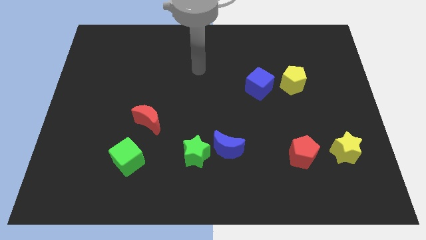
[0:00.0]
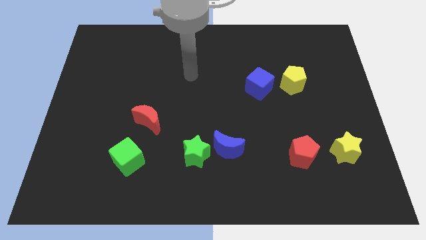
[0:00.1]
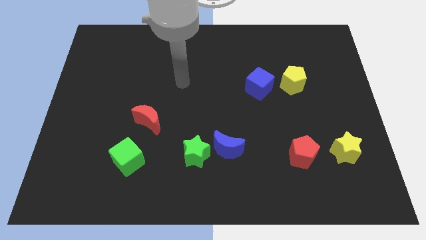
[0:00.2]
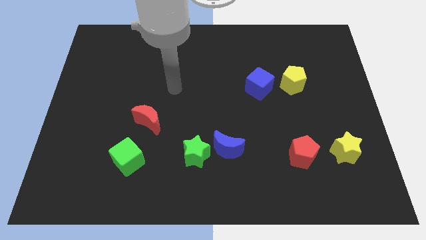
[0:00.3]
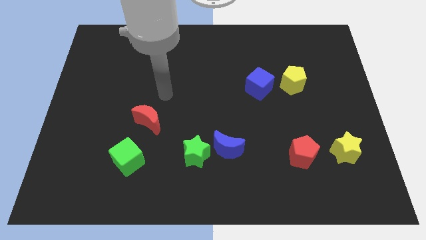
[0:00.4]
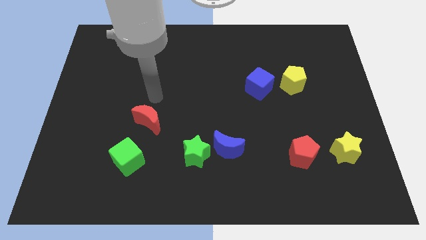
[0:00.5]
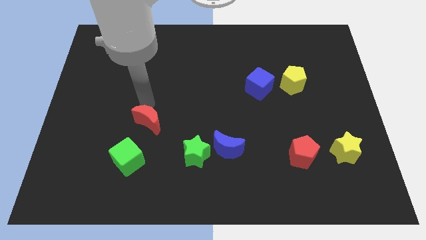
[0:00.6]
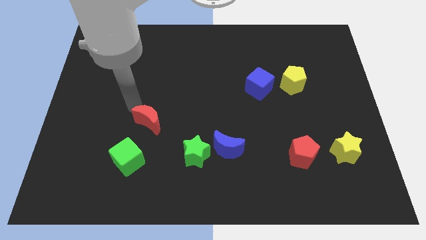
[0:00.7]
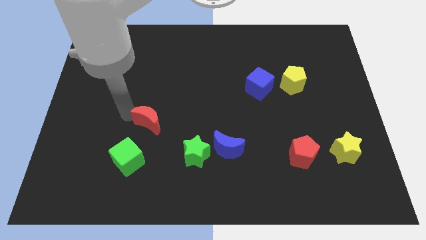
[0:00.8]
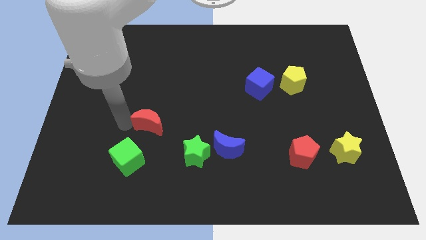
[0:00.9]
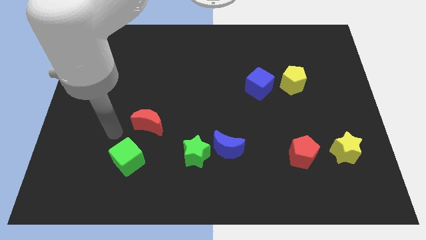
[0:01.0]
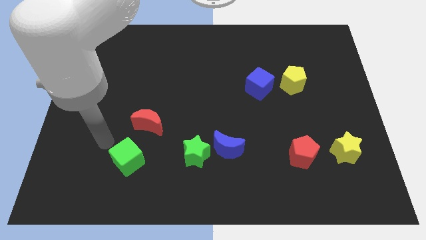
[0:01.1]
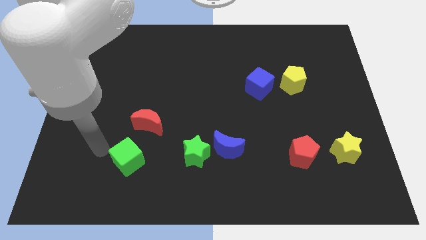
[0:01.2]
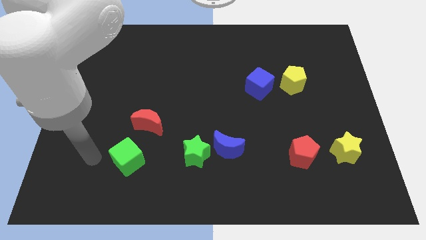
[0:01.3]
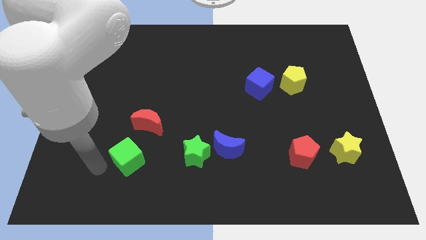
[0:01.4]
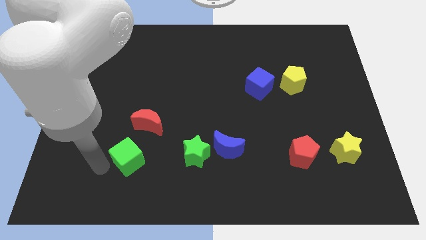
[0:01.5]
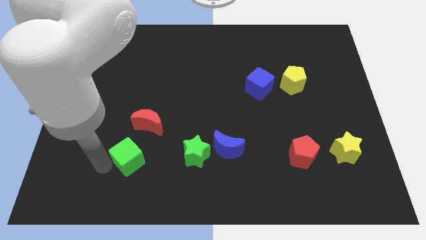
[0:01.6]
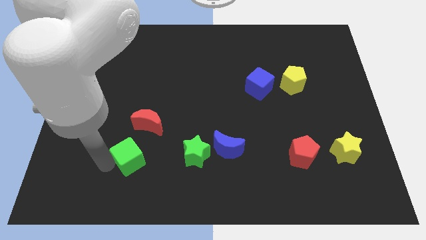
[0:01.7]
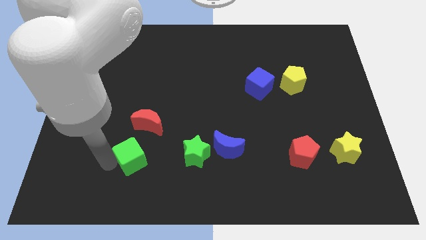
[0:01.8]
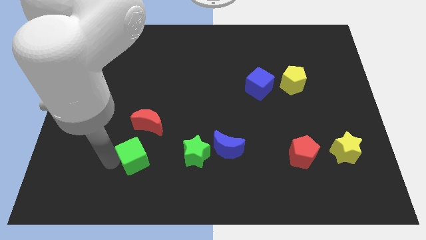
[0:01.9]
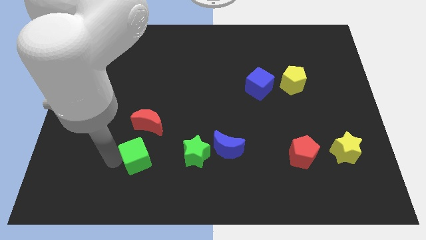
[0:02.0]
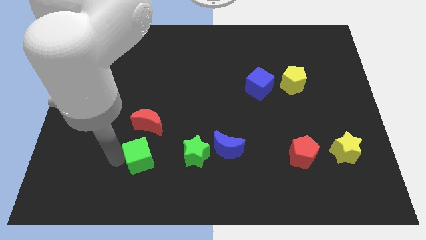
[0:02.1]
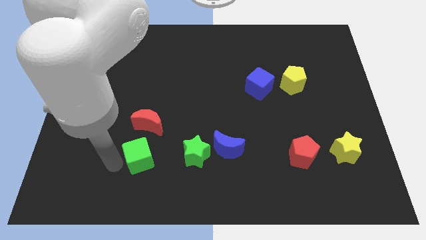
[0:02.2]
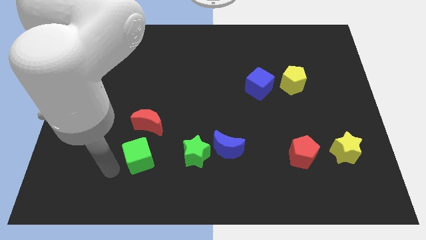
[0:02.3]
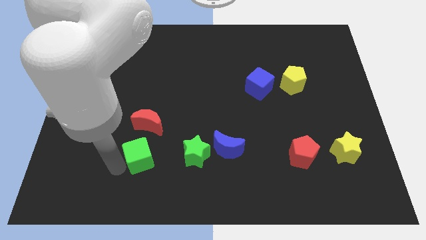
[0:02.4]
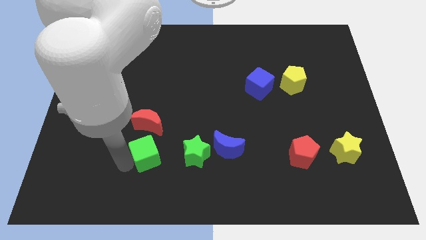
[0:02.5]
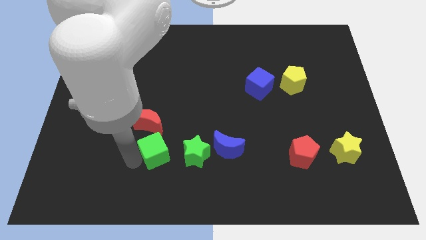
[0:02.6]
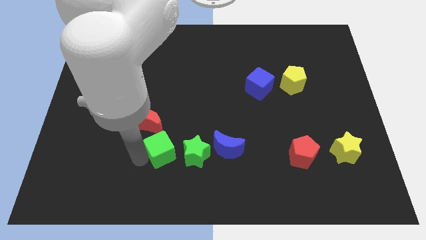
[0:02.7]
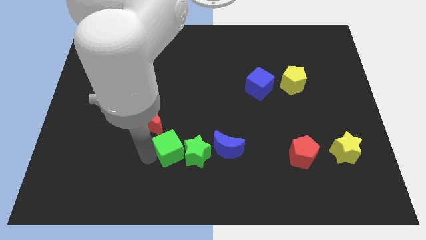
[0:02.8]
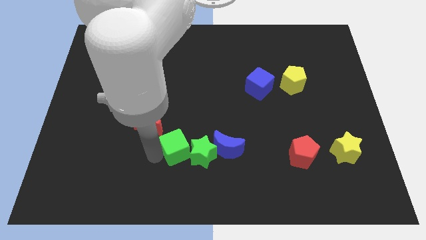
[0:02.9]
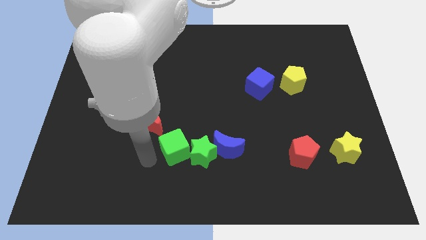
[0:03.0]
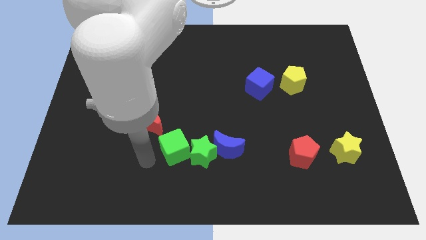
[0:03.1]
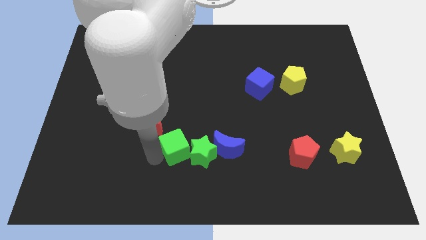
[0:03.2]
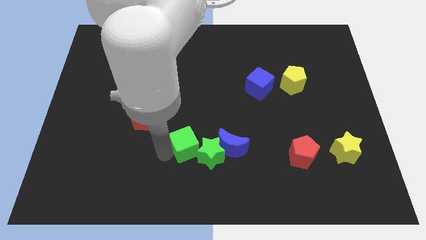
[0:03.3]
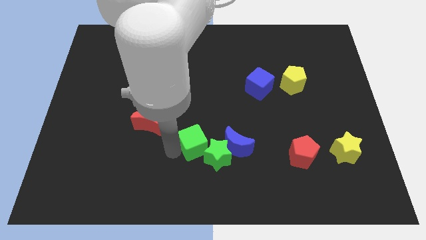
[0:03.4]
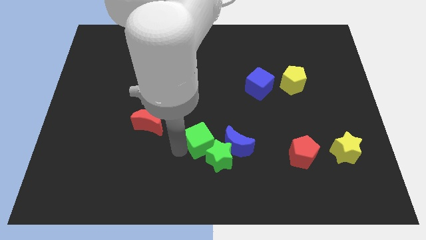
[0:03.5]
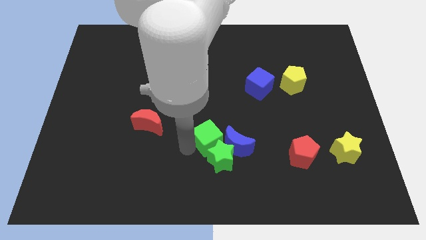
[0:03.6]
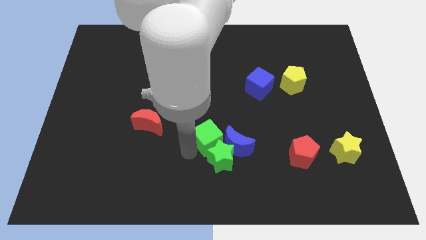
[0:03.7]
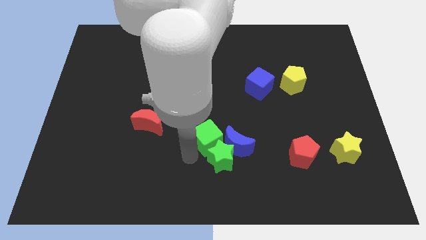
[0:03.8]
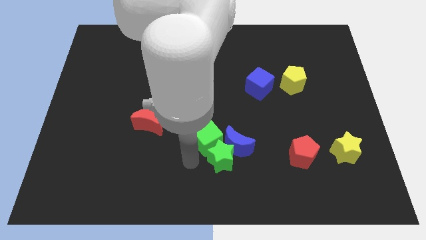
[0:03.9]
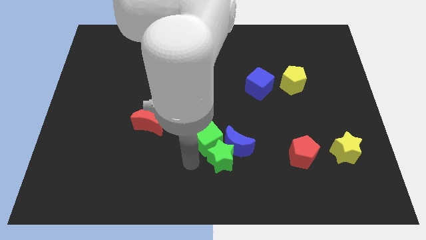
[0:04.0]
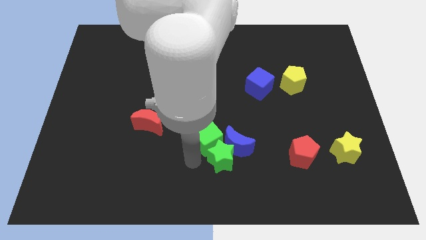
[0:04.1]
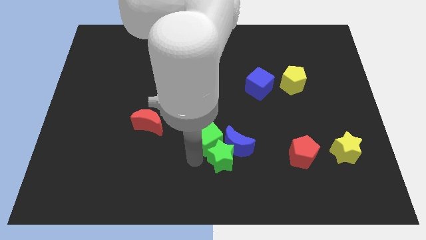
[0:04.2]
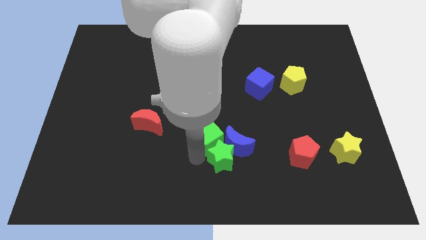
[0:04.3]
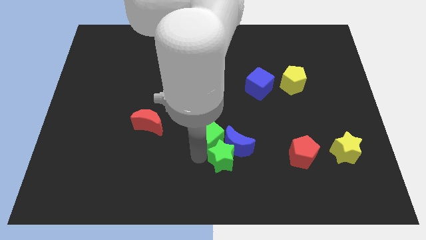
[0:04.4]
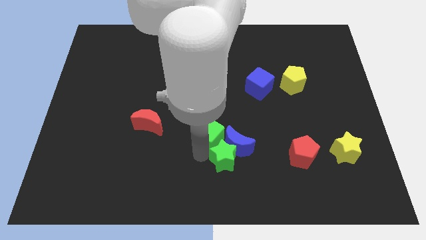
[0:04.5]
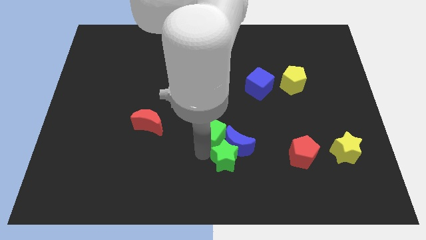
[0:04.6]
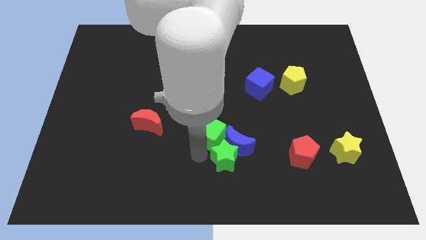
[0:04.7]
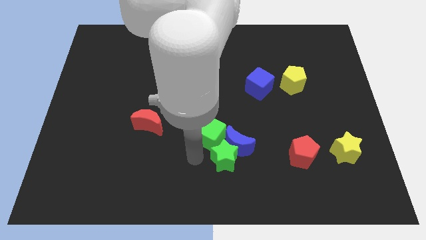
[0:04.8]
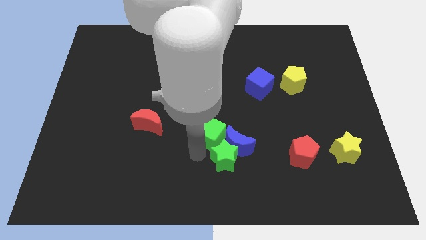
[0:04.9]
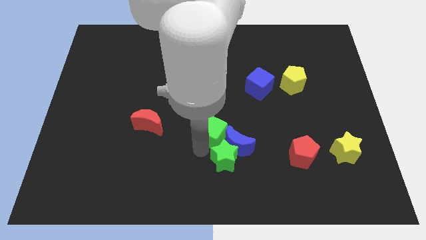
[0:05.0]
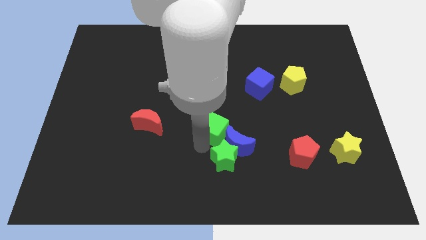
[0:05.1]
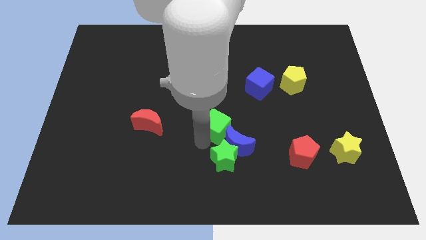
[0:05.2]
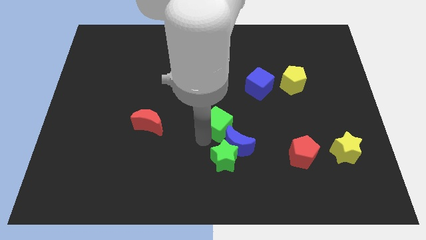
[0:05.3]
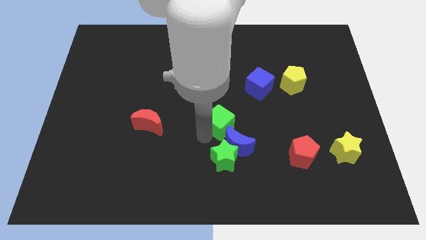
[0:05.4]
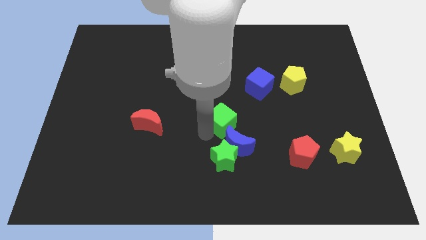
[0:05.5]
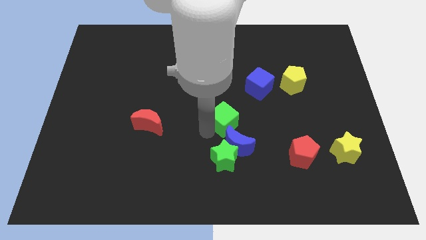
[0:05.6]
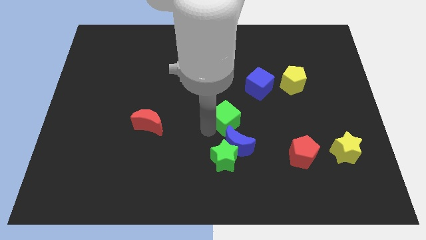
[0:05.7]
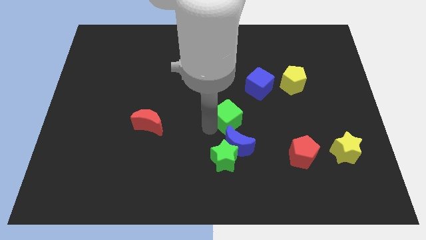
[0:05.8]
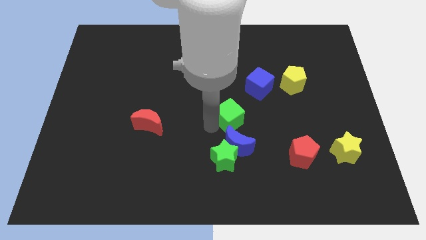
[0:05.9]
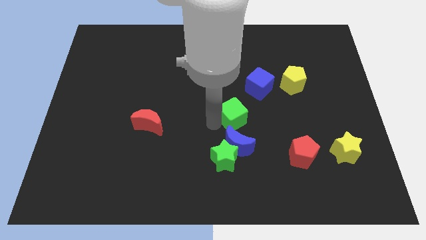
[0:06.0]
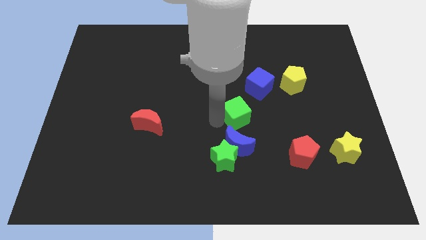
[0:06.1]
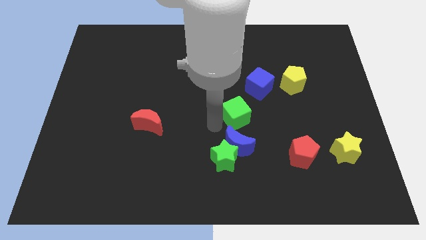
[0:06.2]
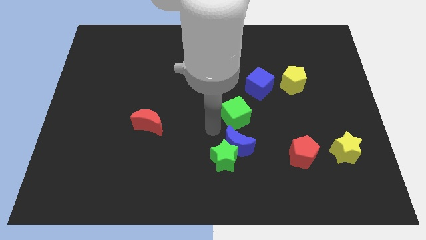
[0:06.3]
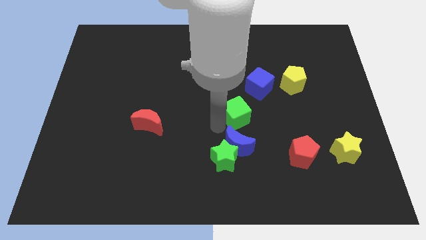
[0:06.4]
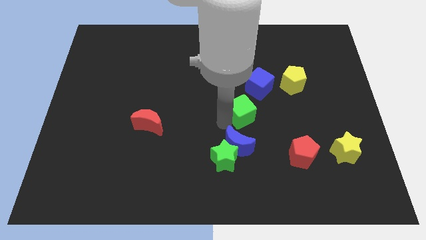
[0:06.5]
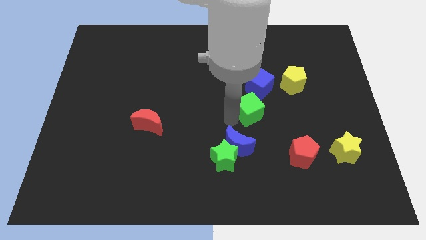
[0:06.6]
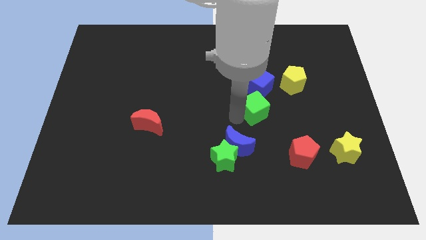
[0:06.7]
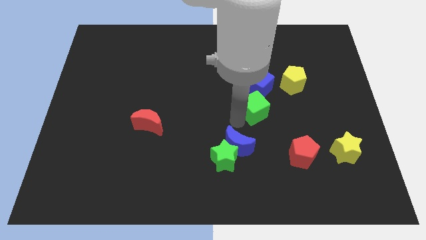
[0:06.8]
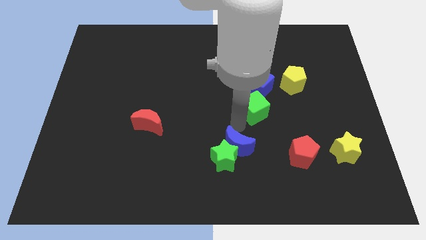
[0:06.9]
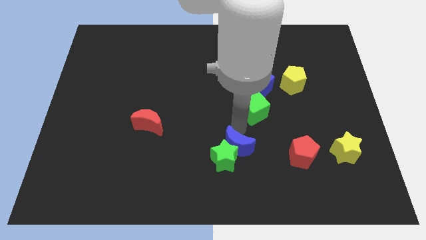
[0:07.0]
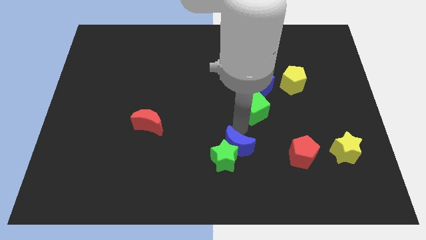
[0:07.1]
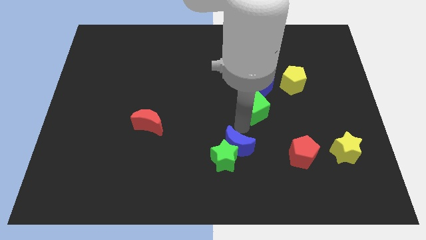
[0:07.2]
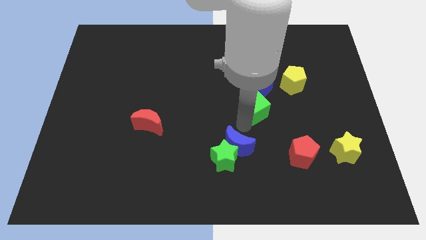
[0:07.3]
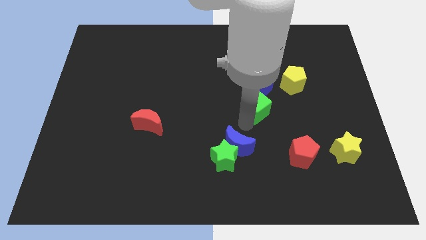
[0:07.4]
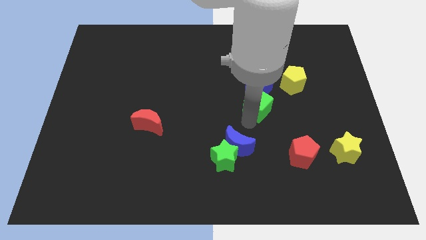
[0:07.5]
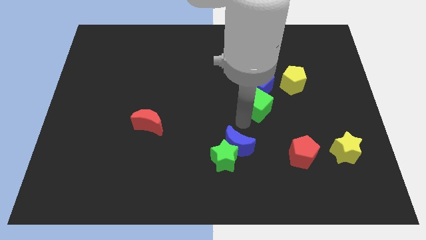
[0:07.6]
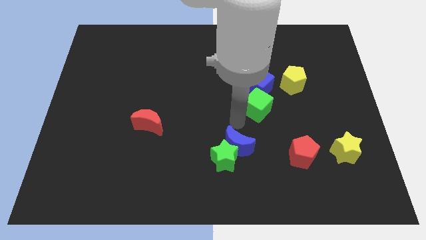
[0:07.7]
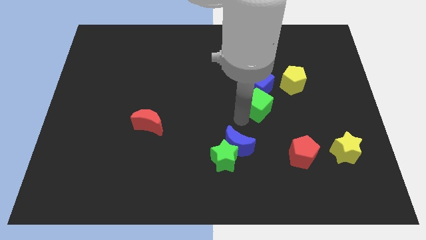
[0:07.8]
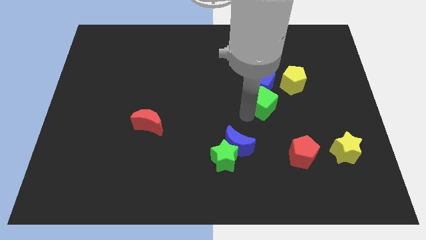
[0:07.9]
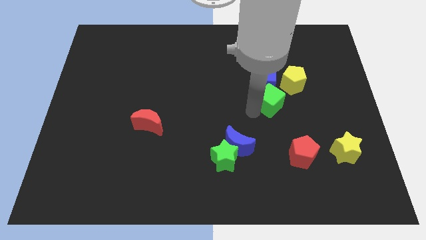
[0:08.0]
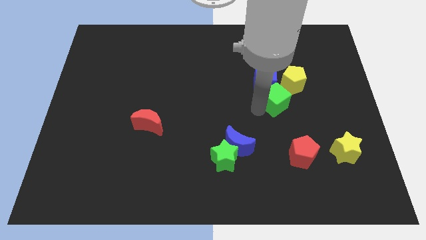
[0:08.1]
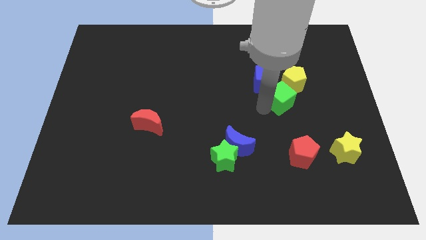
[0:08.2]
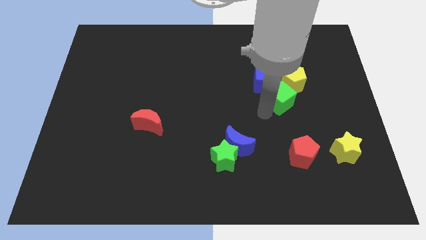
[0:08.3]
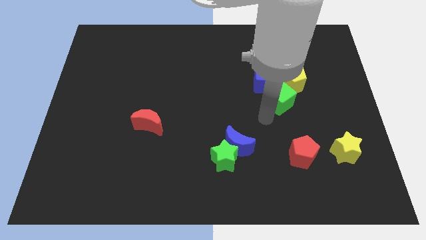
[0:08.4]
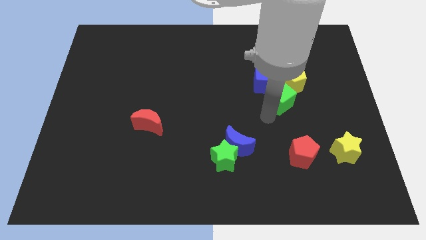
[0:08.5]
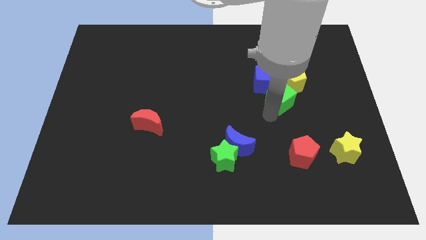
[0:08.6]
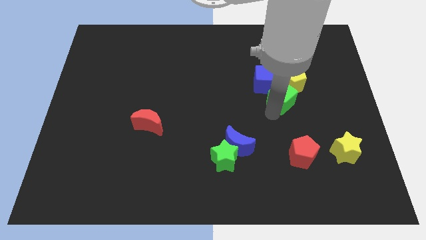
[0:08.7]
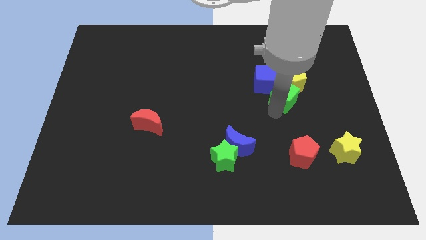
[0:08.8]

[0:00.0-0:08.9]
slide the green cube to the yellow pentagon
